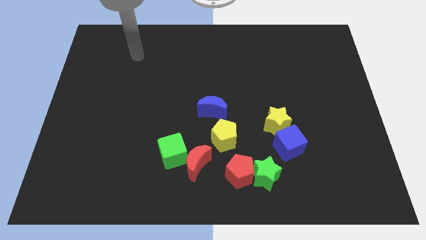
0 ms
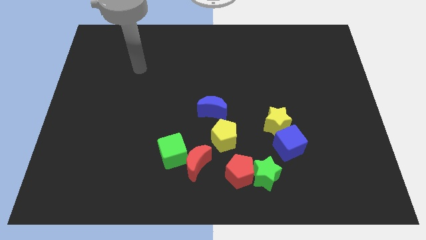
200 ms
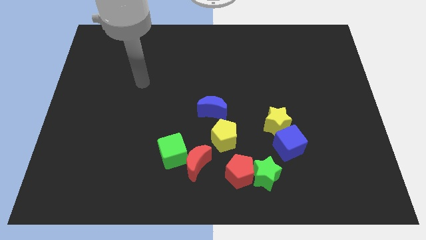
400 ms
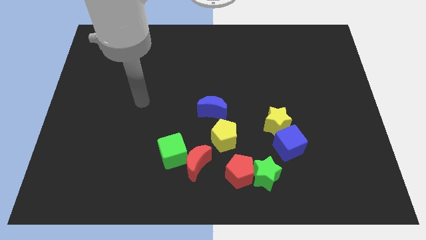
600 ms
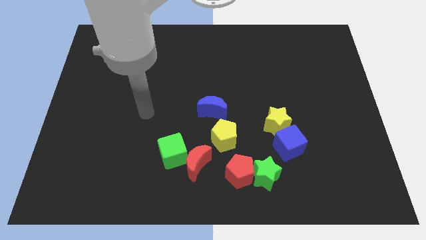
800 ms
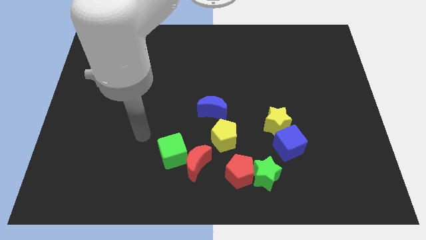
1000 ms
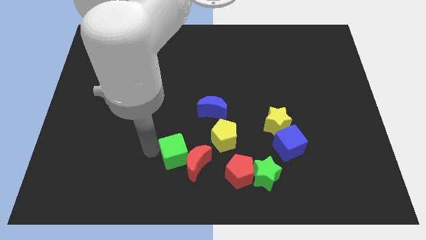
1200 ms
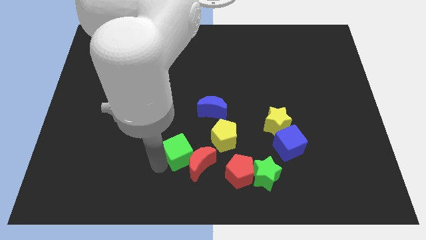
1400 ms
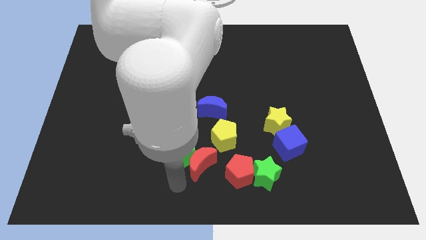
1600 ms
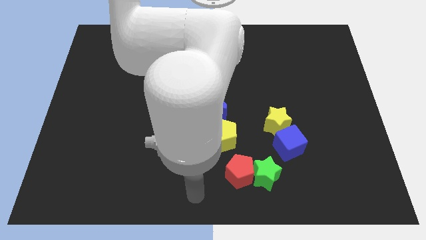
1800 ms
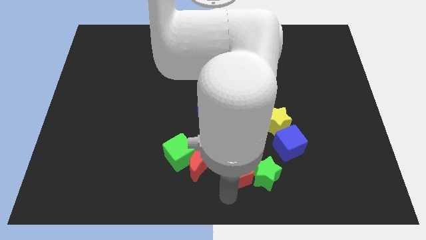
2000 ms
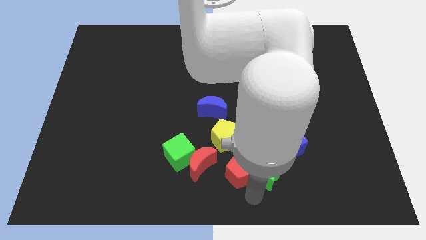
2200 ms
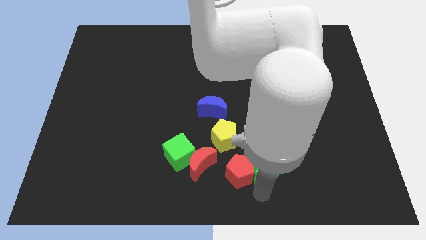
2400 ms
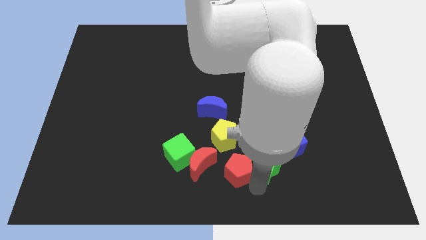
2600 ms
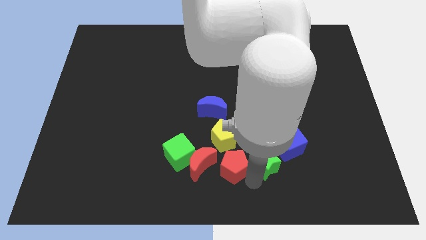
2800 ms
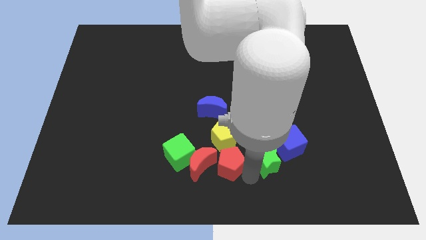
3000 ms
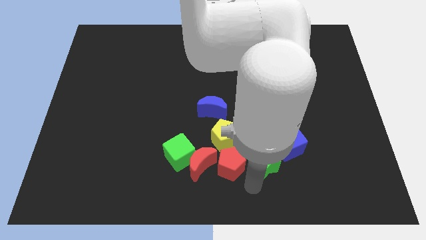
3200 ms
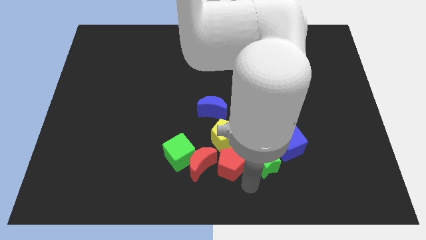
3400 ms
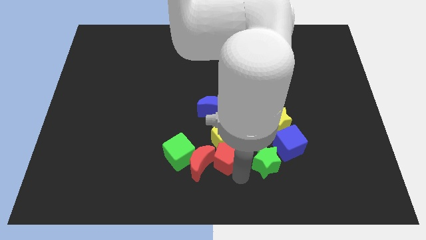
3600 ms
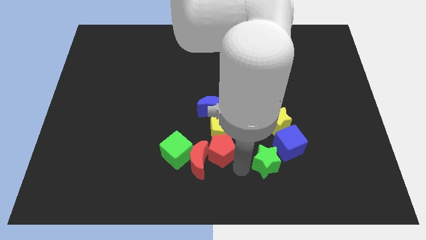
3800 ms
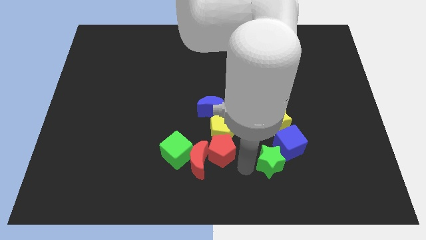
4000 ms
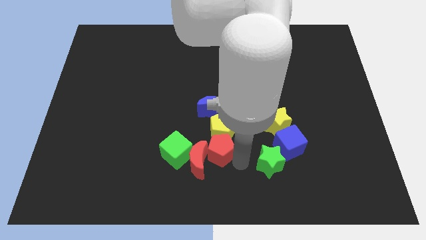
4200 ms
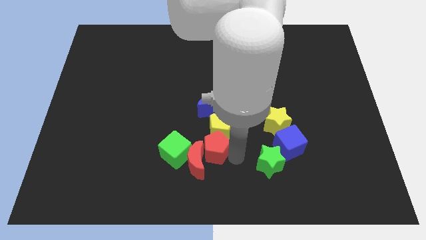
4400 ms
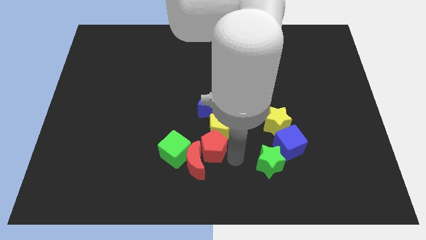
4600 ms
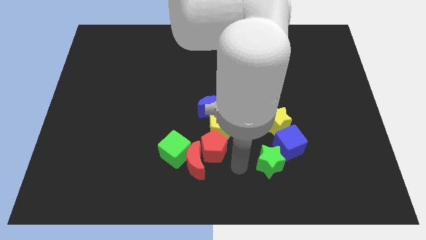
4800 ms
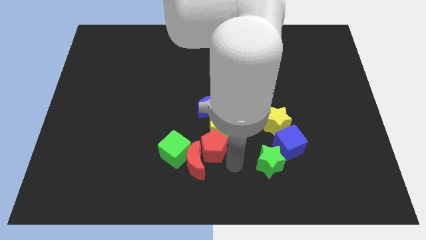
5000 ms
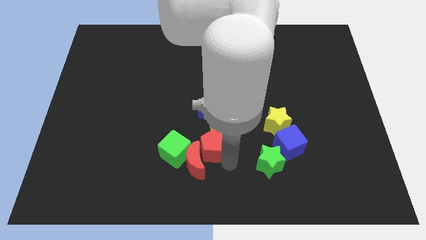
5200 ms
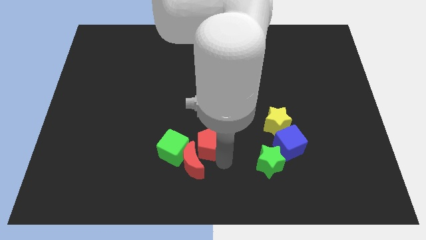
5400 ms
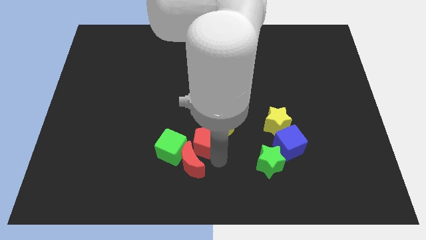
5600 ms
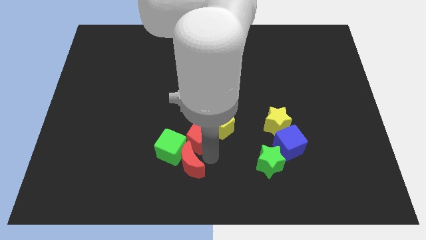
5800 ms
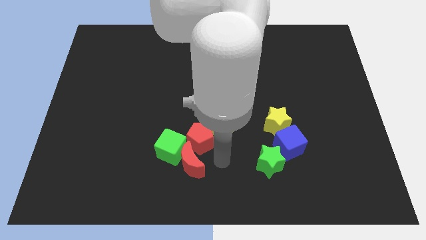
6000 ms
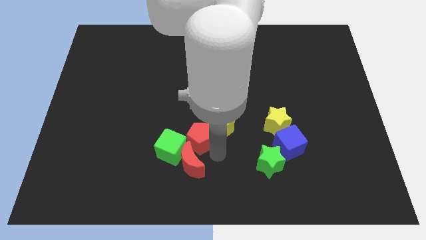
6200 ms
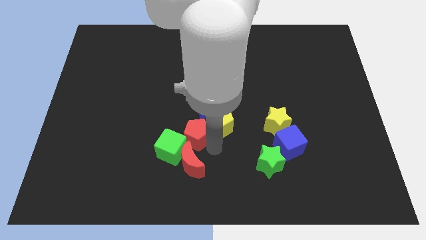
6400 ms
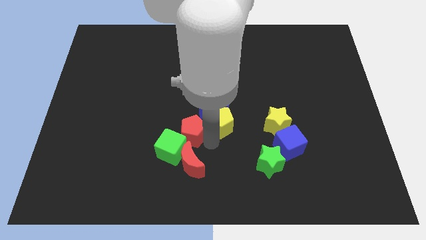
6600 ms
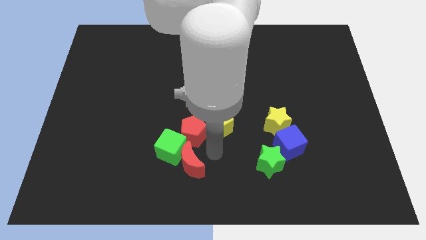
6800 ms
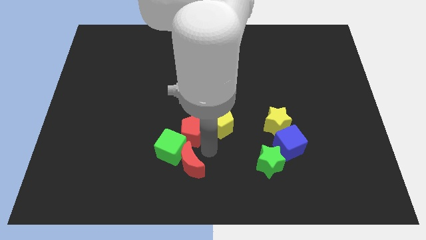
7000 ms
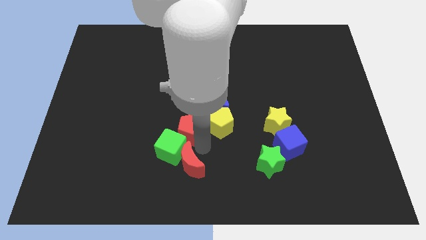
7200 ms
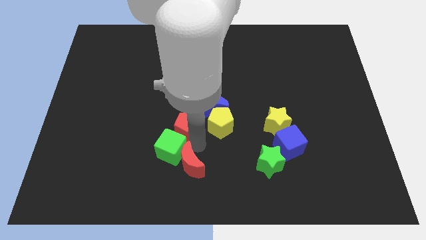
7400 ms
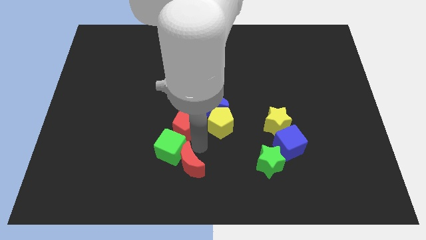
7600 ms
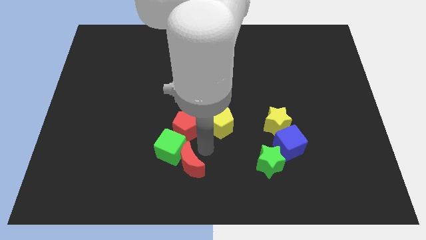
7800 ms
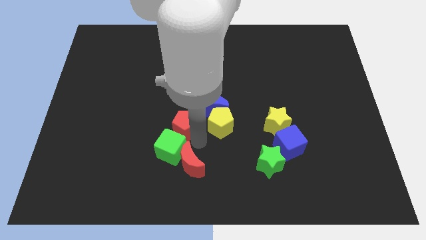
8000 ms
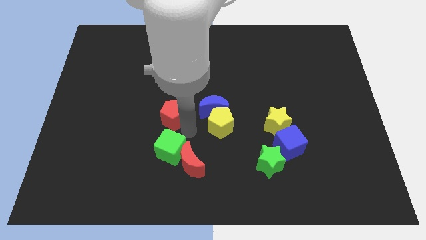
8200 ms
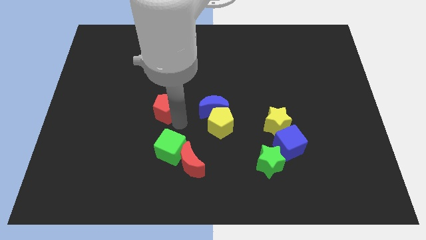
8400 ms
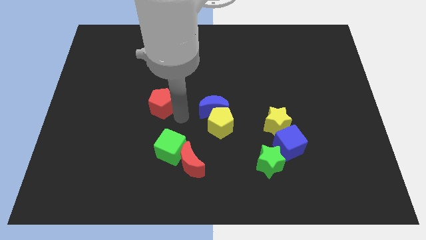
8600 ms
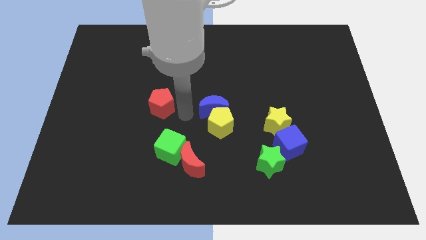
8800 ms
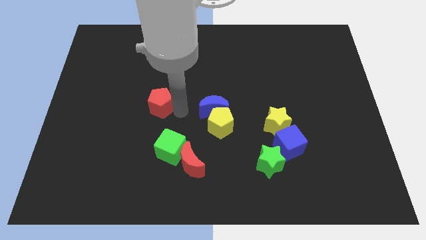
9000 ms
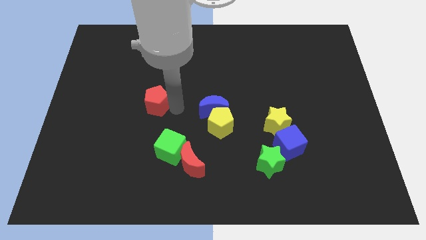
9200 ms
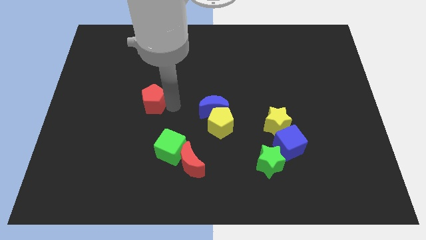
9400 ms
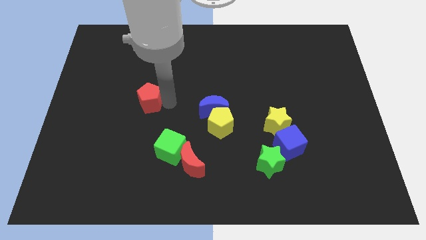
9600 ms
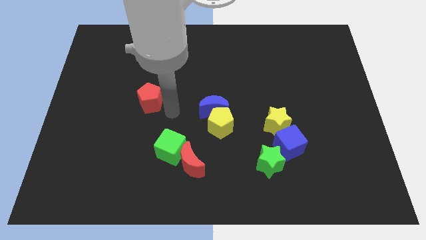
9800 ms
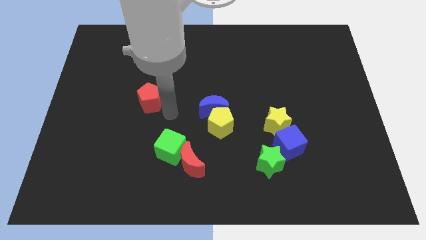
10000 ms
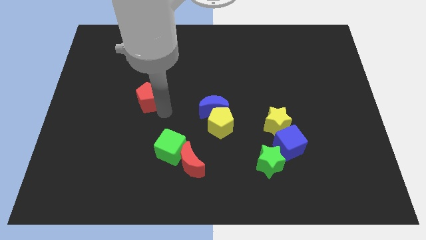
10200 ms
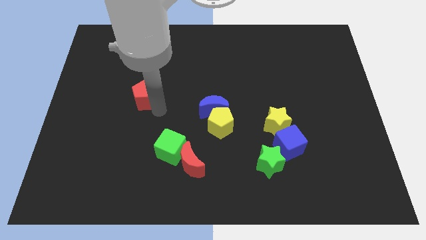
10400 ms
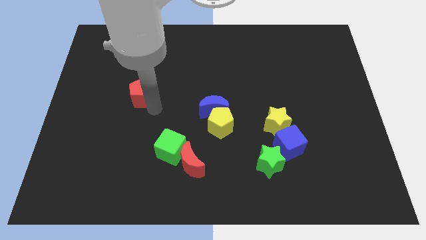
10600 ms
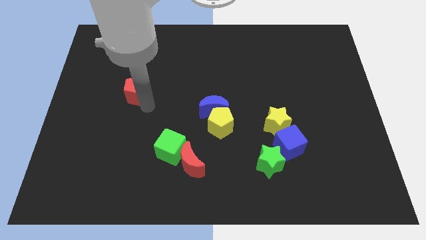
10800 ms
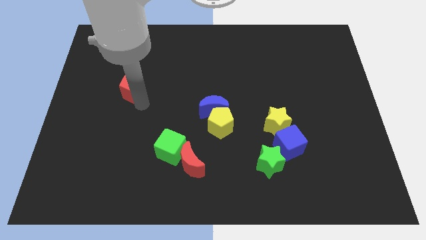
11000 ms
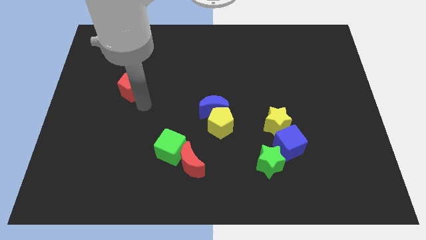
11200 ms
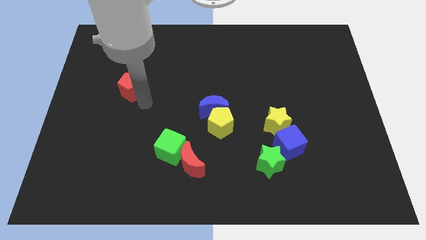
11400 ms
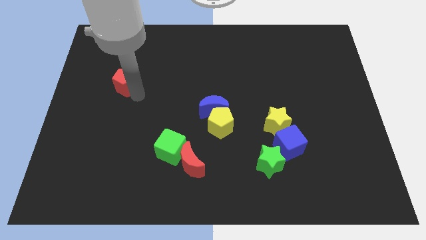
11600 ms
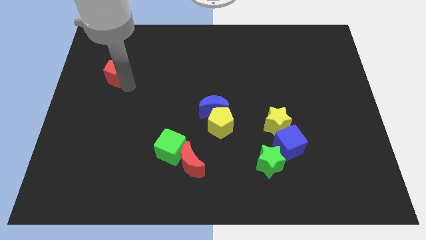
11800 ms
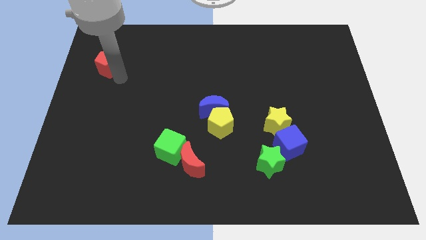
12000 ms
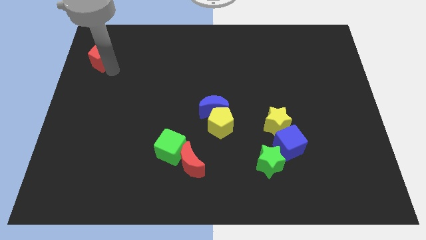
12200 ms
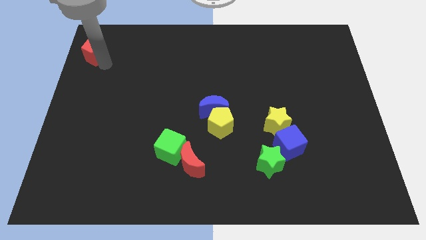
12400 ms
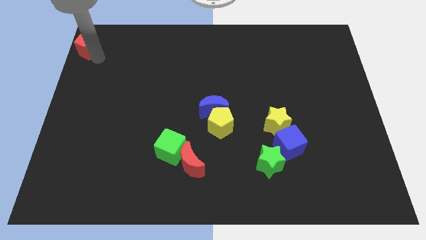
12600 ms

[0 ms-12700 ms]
push the red pentagon to the upper left corner

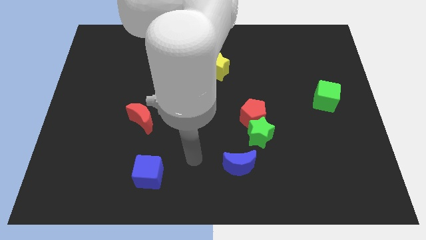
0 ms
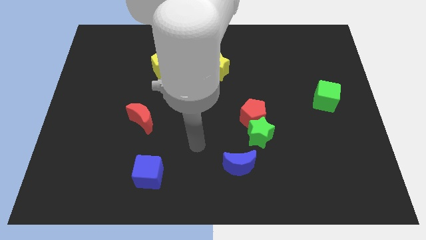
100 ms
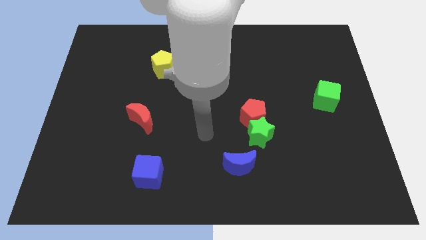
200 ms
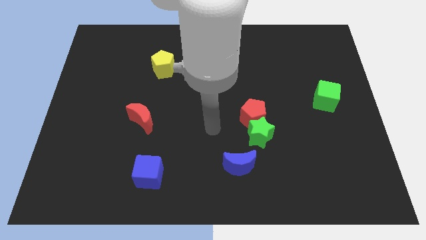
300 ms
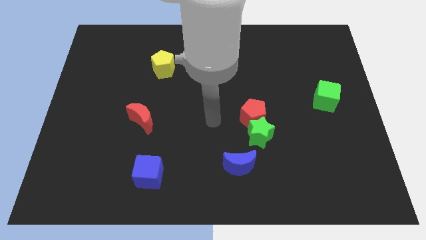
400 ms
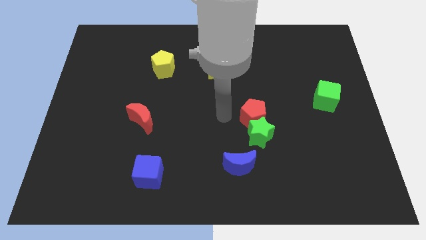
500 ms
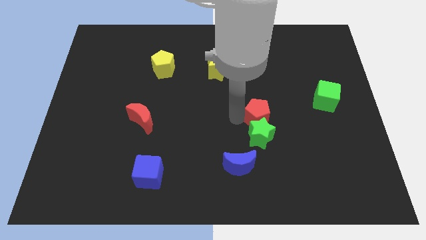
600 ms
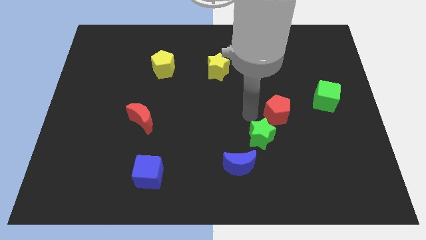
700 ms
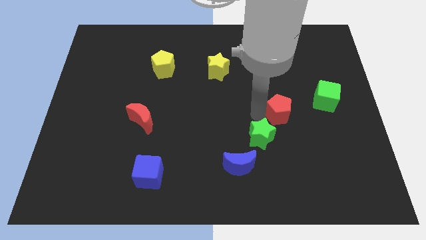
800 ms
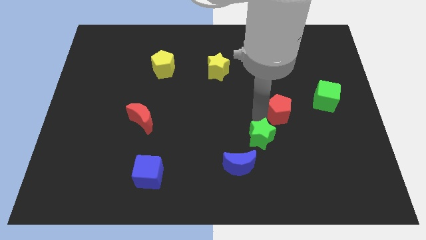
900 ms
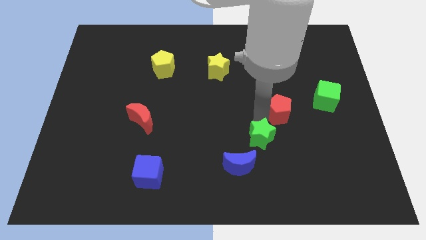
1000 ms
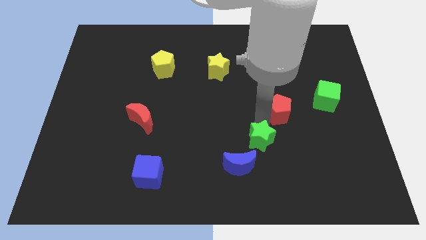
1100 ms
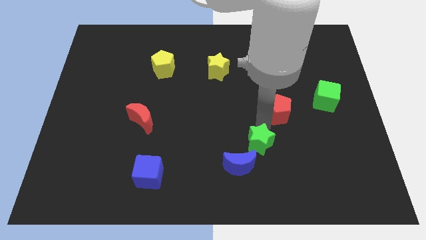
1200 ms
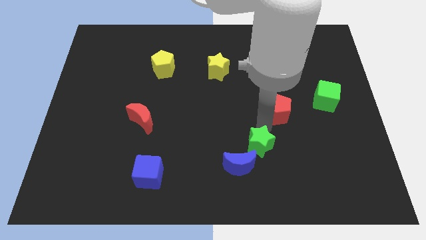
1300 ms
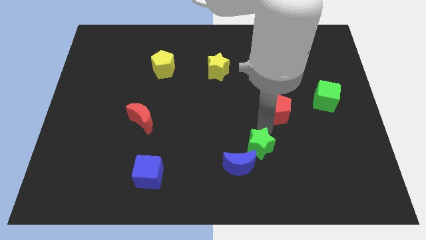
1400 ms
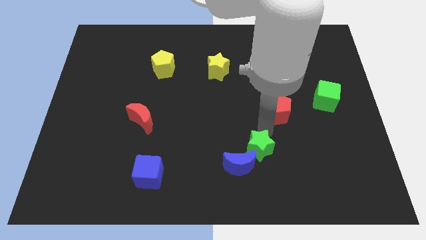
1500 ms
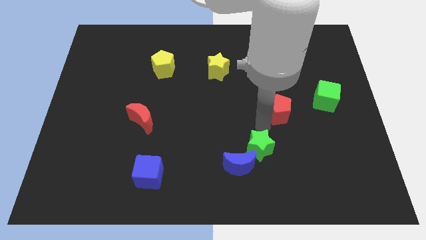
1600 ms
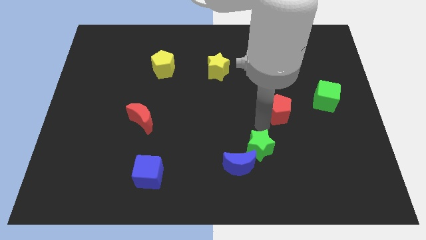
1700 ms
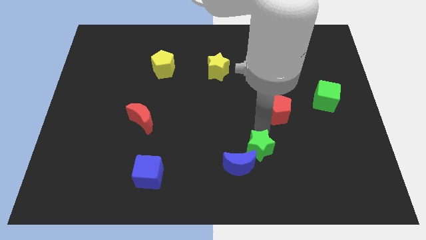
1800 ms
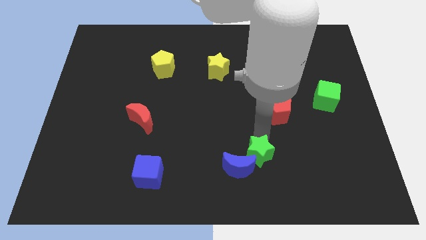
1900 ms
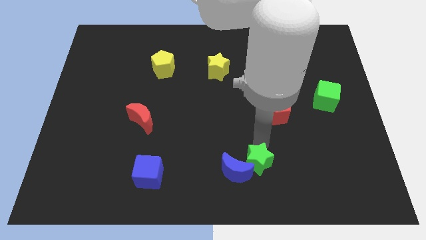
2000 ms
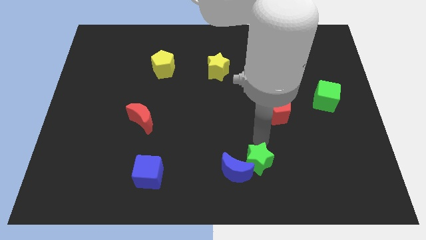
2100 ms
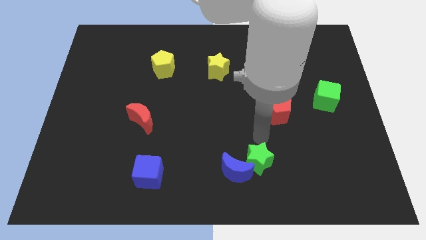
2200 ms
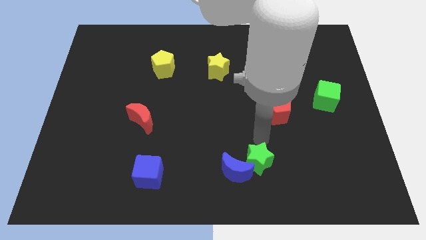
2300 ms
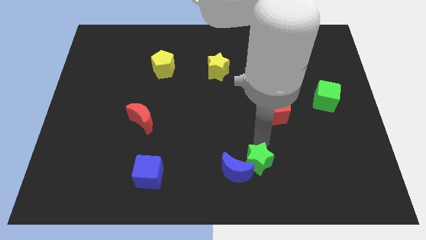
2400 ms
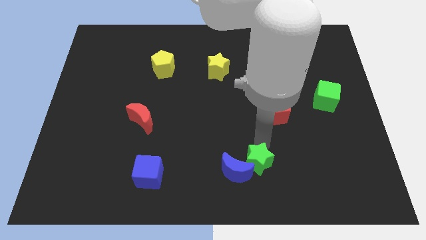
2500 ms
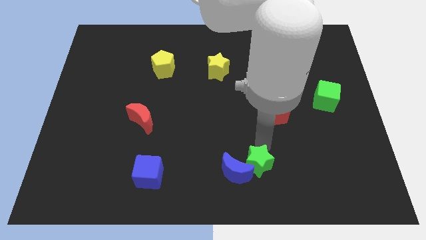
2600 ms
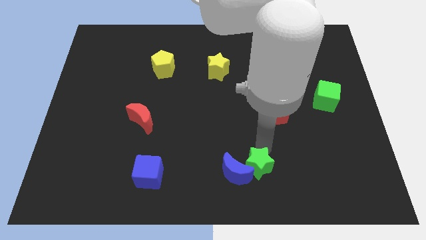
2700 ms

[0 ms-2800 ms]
push the green star to the bottom side
